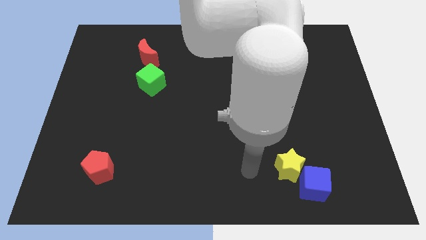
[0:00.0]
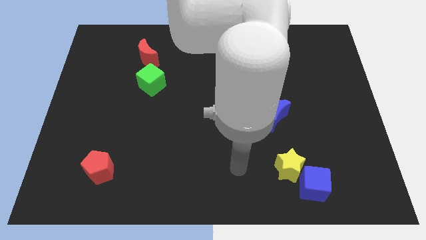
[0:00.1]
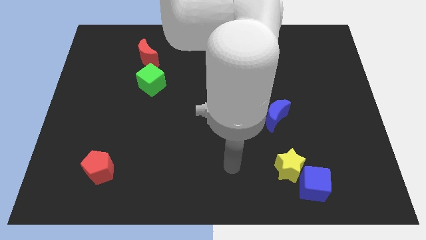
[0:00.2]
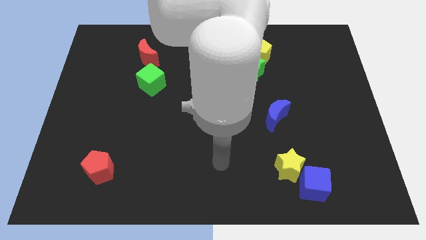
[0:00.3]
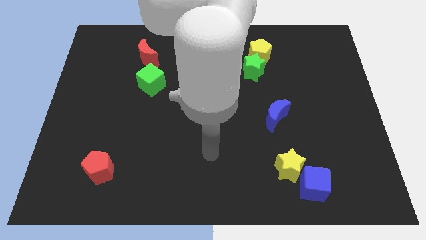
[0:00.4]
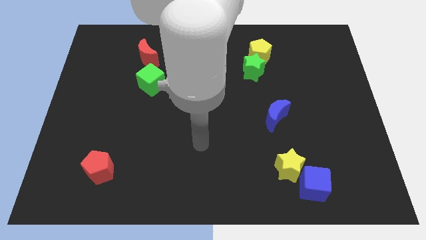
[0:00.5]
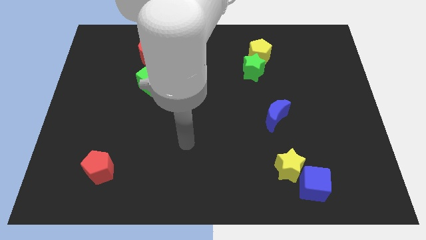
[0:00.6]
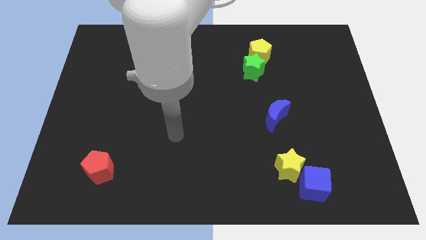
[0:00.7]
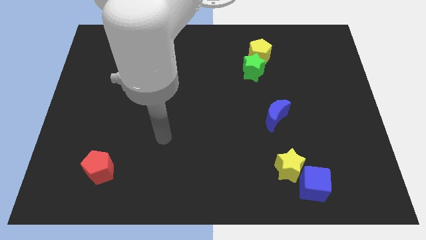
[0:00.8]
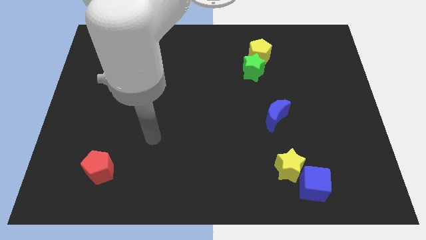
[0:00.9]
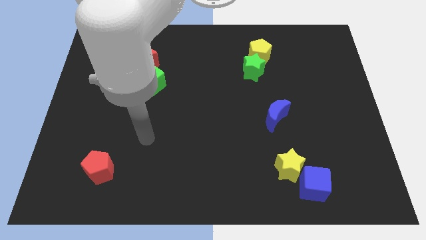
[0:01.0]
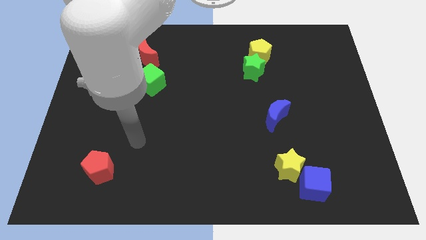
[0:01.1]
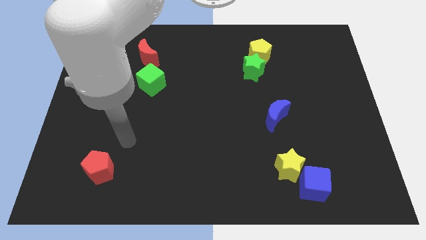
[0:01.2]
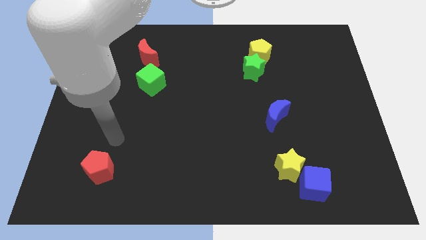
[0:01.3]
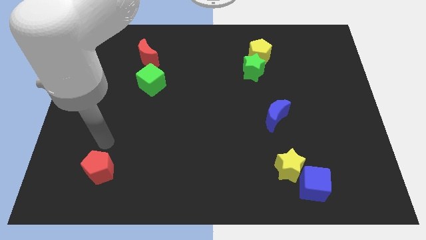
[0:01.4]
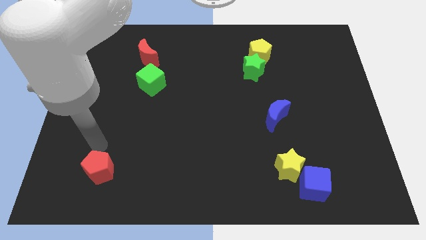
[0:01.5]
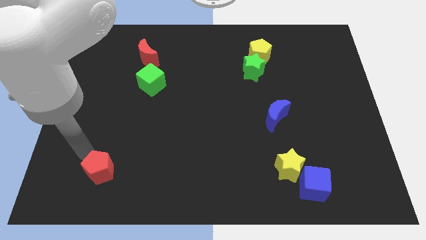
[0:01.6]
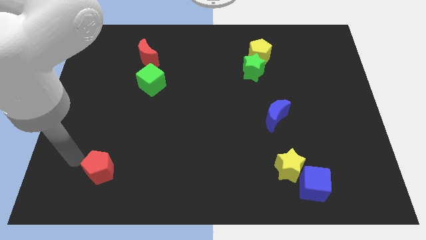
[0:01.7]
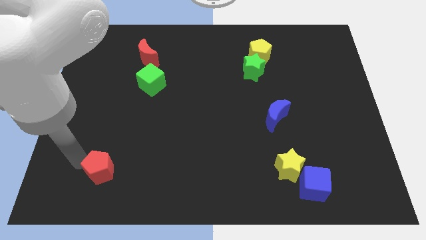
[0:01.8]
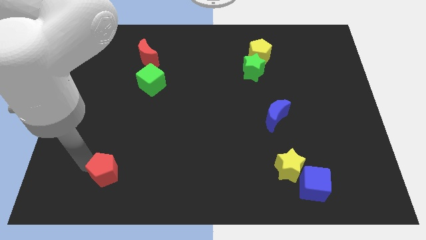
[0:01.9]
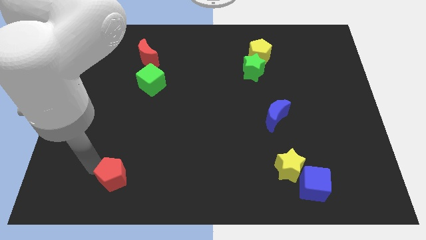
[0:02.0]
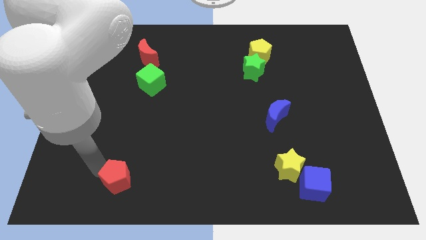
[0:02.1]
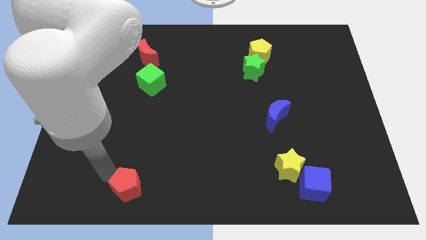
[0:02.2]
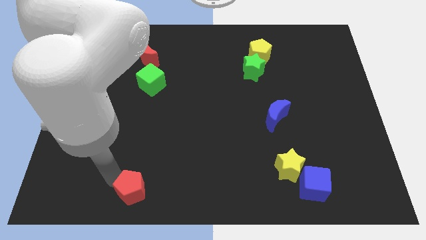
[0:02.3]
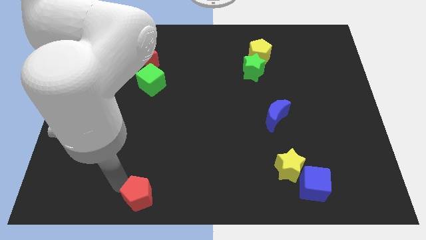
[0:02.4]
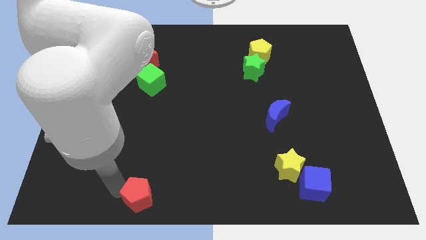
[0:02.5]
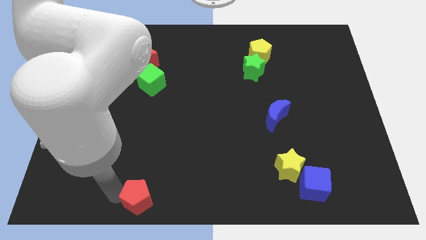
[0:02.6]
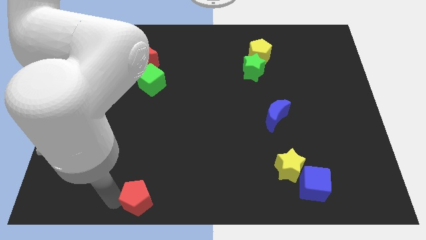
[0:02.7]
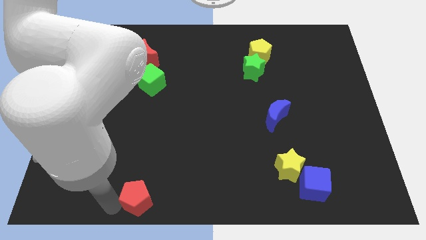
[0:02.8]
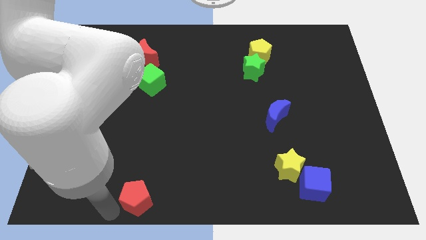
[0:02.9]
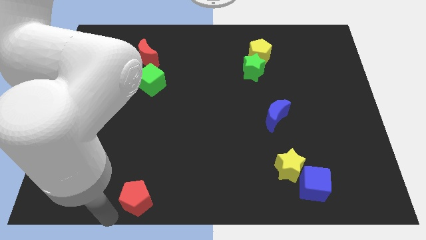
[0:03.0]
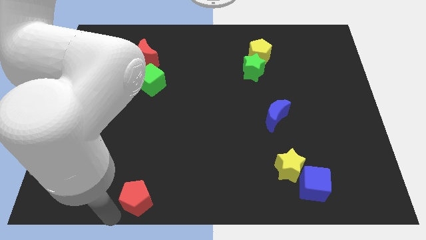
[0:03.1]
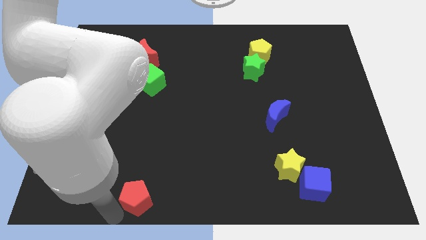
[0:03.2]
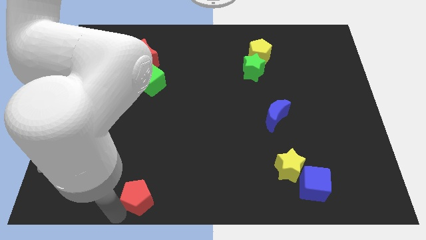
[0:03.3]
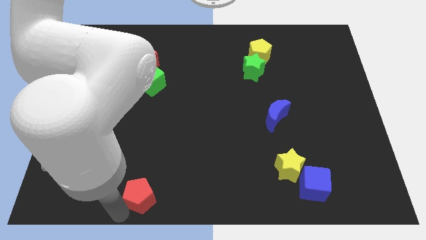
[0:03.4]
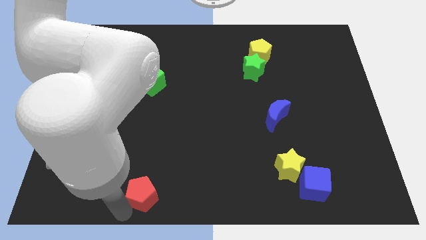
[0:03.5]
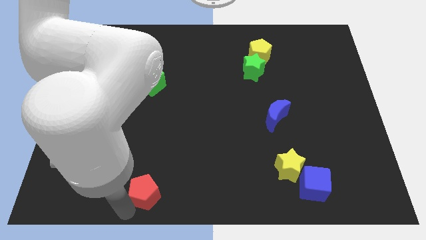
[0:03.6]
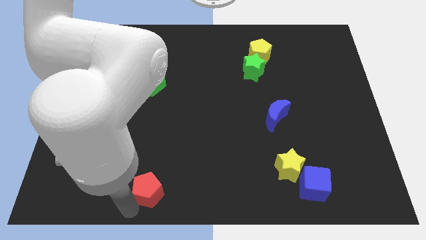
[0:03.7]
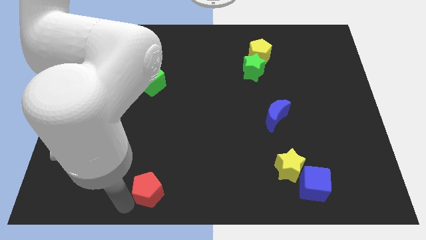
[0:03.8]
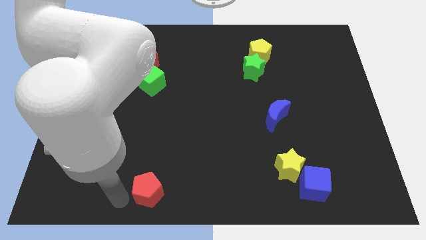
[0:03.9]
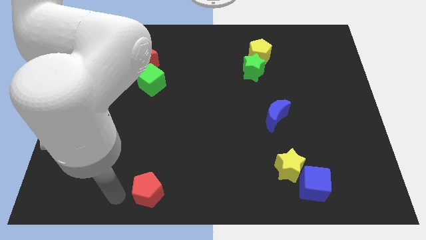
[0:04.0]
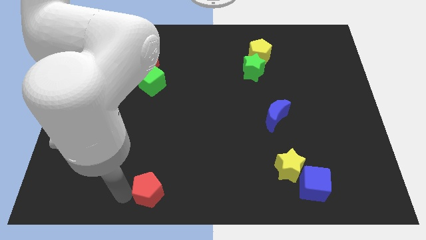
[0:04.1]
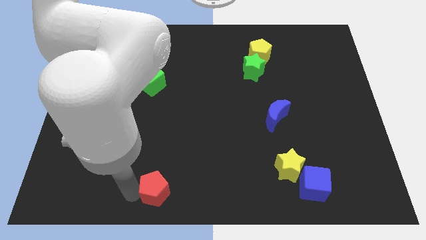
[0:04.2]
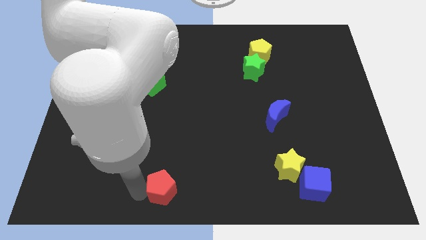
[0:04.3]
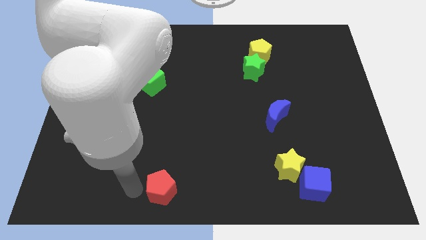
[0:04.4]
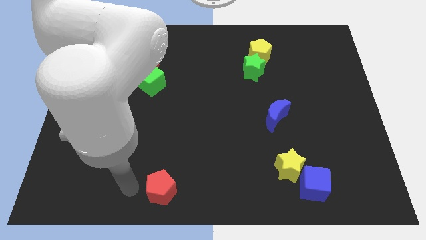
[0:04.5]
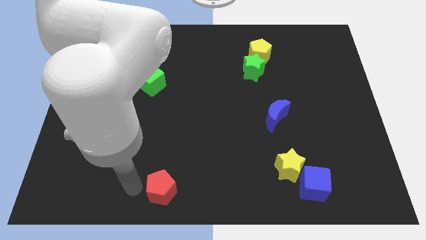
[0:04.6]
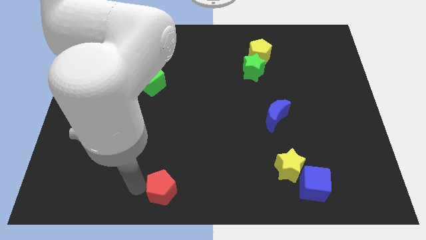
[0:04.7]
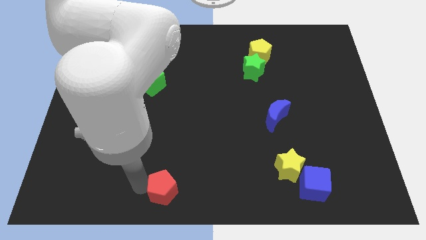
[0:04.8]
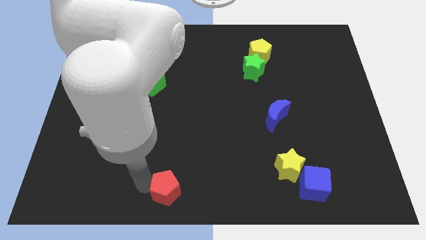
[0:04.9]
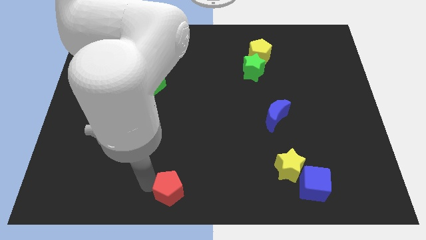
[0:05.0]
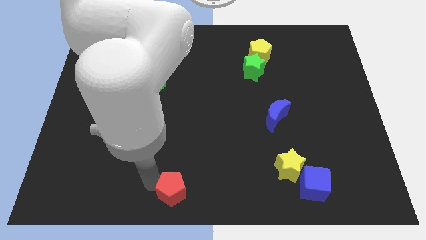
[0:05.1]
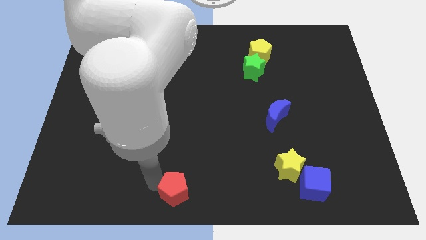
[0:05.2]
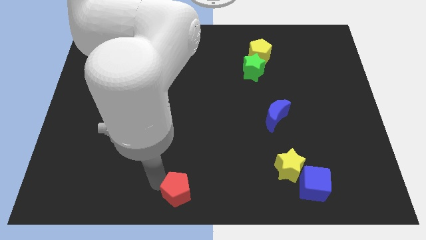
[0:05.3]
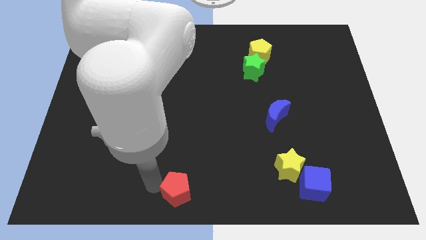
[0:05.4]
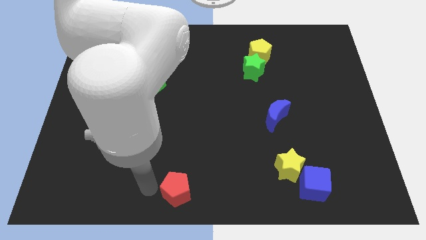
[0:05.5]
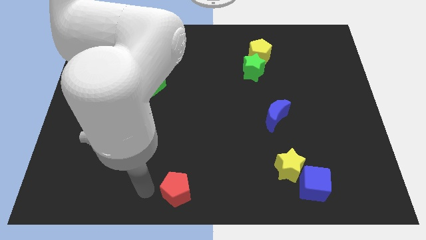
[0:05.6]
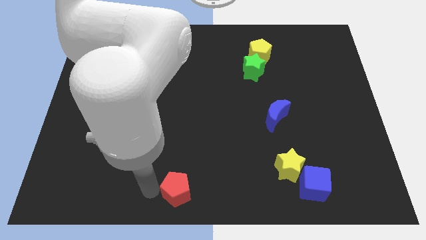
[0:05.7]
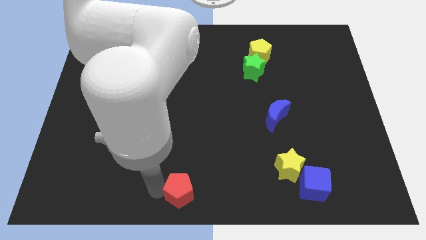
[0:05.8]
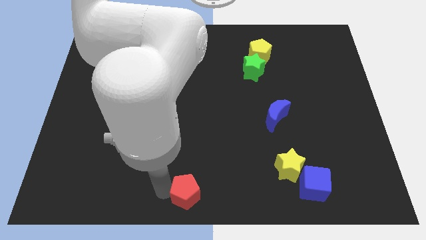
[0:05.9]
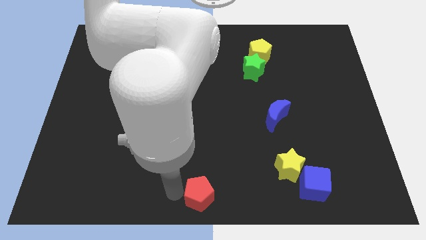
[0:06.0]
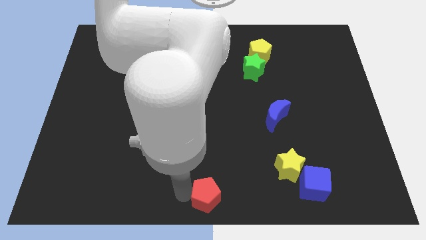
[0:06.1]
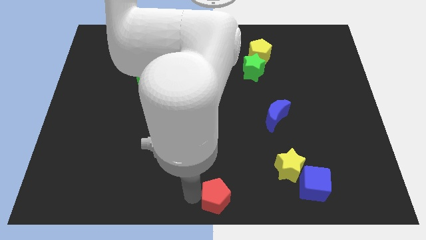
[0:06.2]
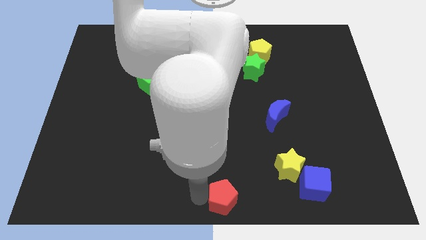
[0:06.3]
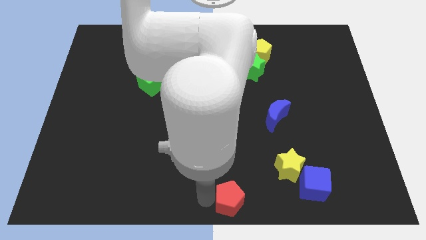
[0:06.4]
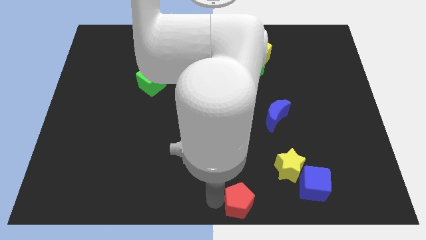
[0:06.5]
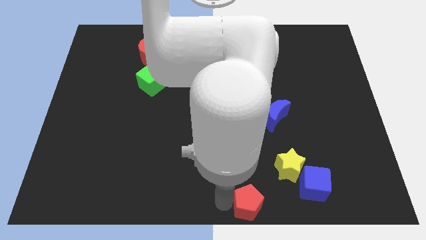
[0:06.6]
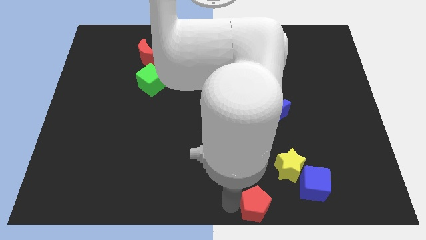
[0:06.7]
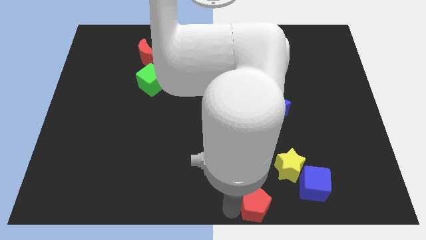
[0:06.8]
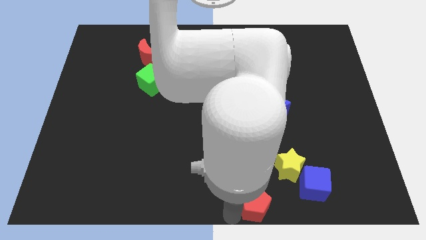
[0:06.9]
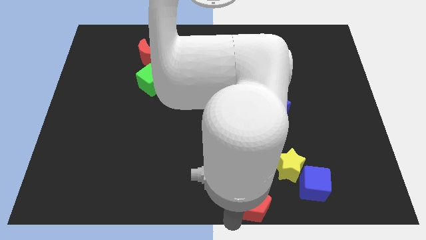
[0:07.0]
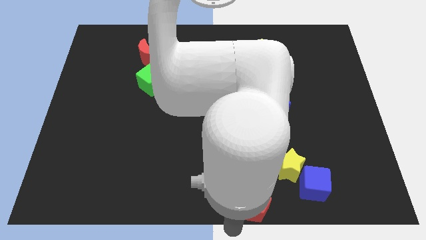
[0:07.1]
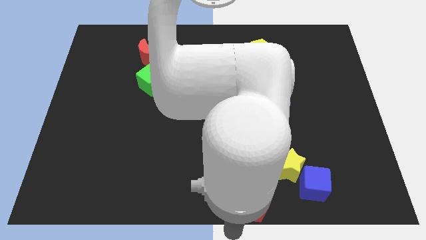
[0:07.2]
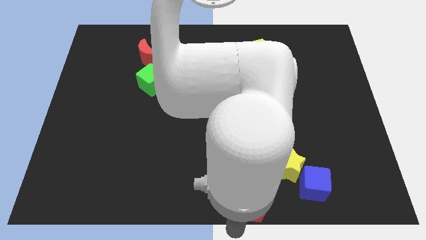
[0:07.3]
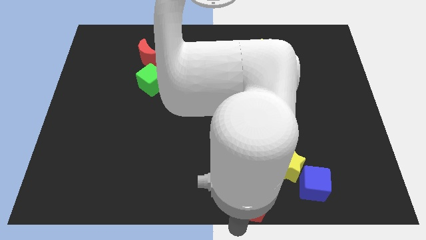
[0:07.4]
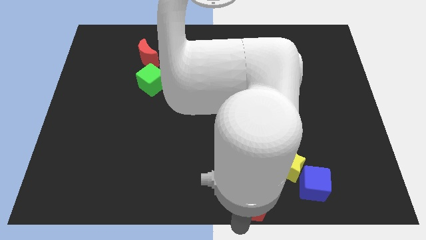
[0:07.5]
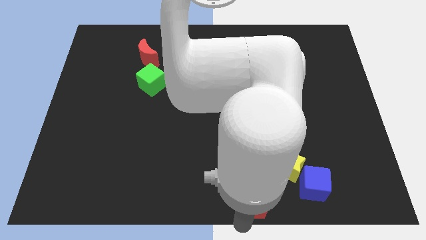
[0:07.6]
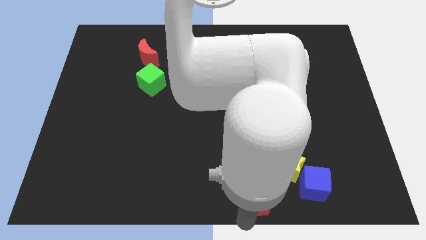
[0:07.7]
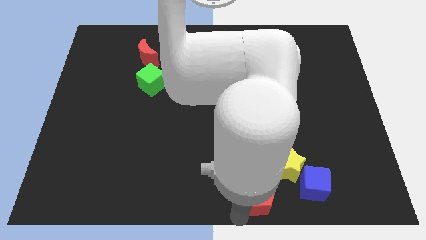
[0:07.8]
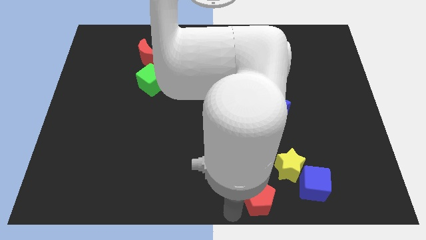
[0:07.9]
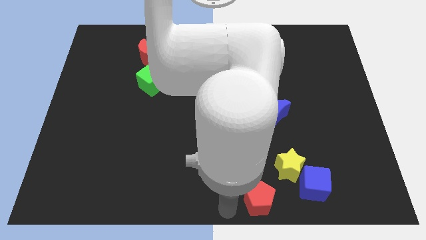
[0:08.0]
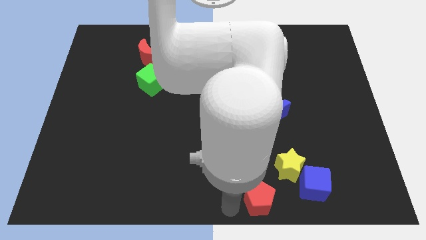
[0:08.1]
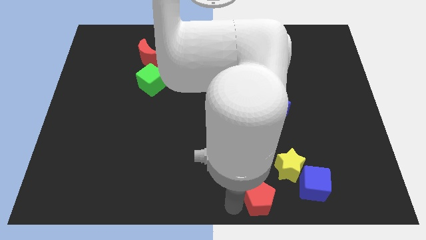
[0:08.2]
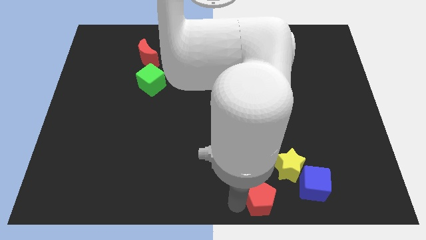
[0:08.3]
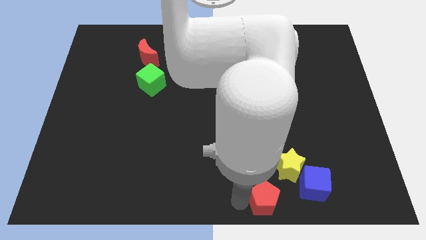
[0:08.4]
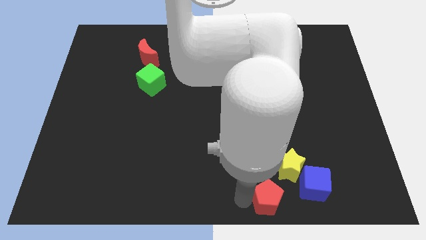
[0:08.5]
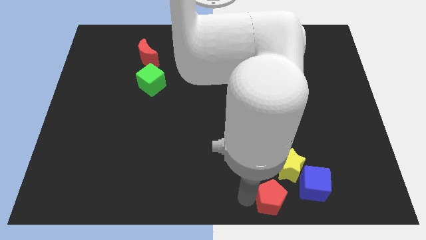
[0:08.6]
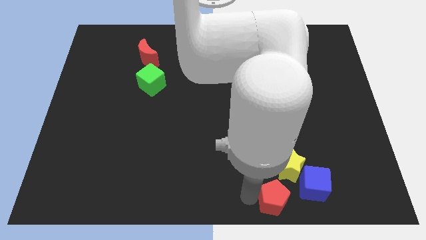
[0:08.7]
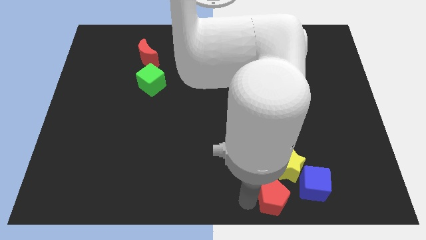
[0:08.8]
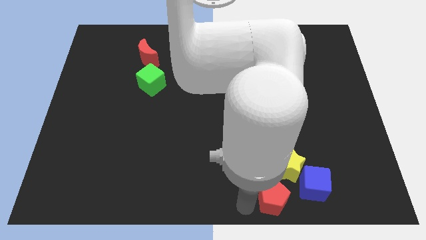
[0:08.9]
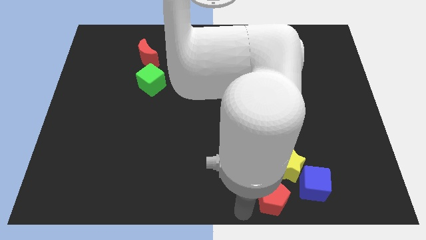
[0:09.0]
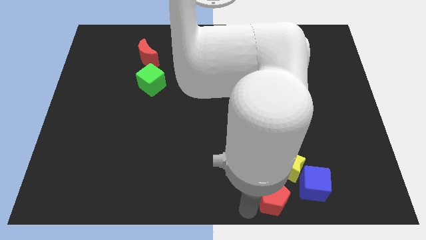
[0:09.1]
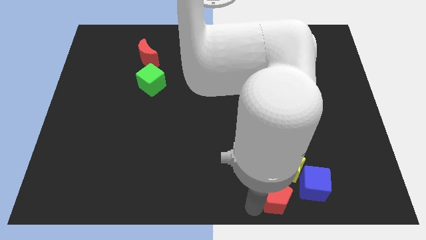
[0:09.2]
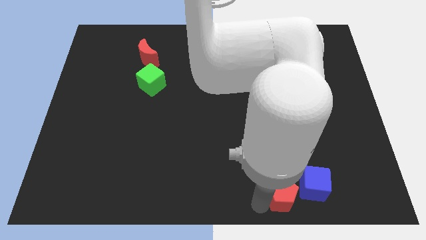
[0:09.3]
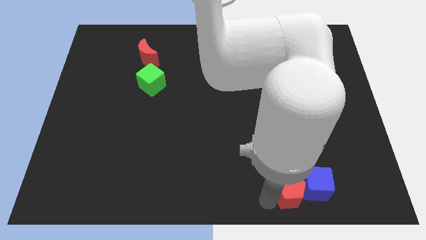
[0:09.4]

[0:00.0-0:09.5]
move the red pentagon towards the blue cube
